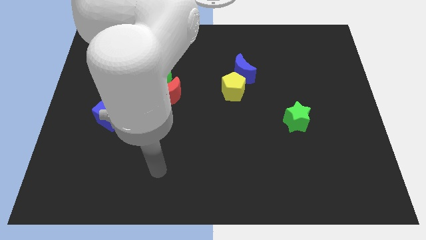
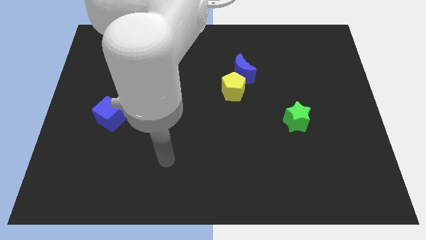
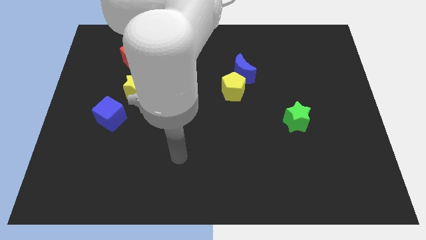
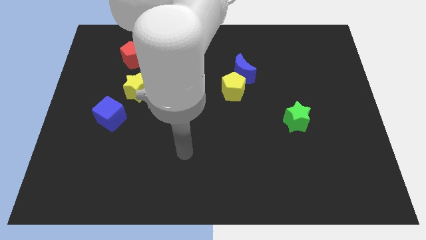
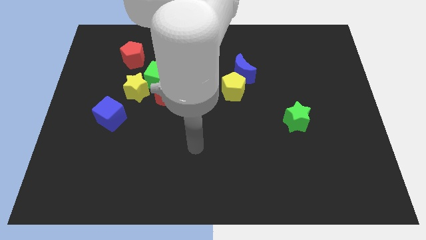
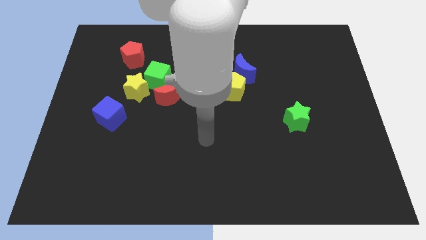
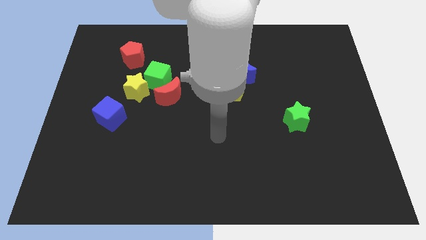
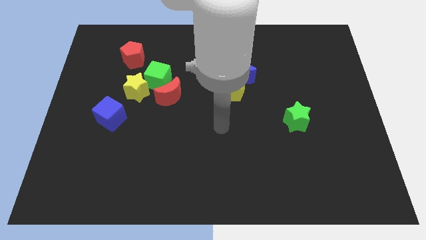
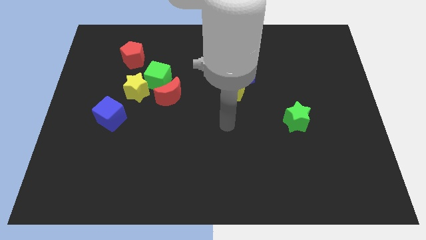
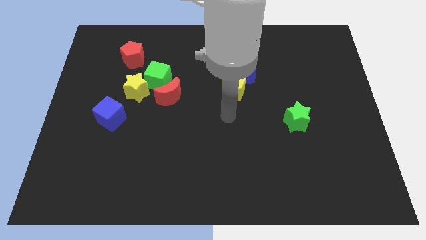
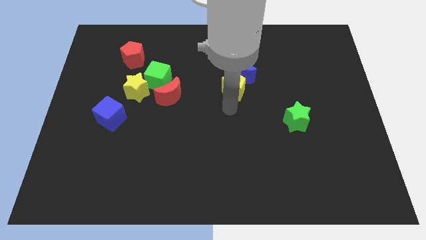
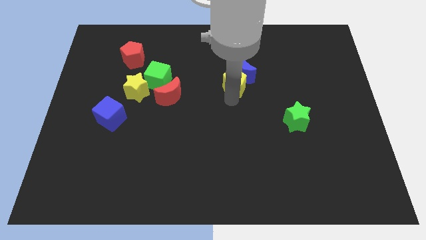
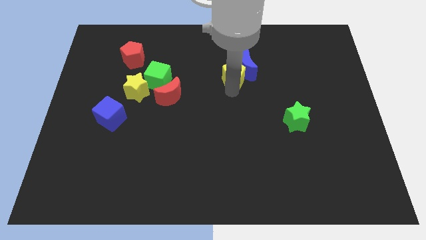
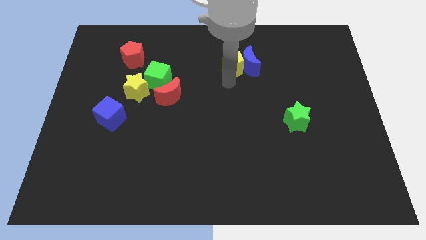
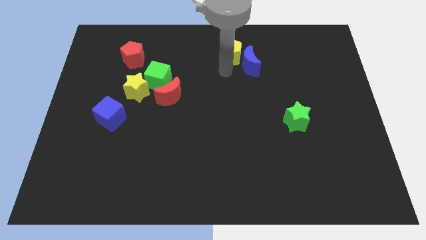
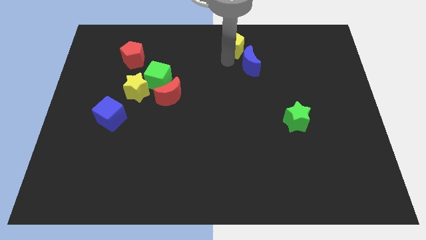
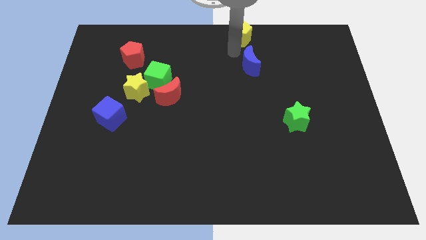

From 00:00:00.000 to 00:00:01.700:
separate the blue moon from the yellow pentagon

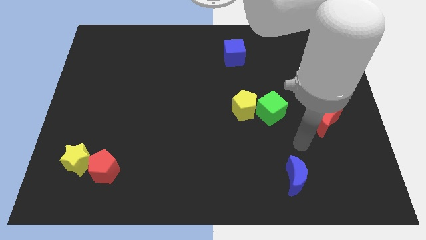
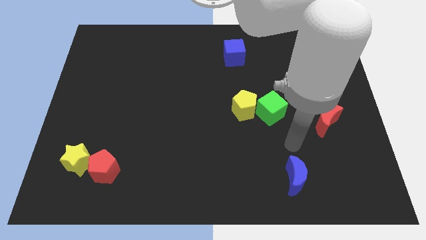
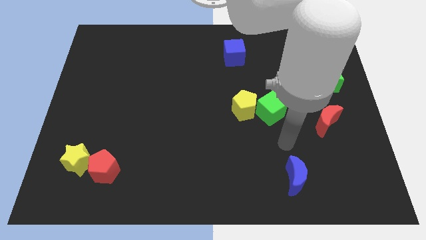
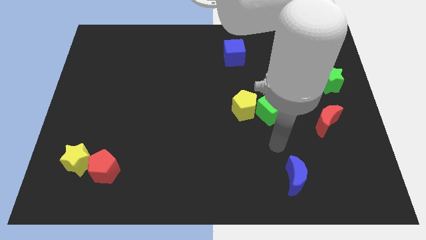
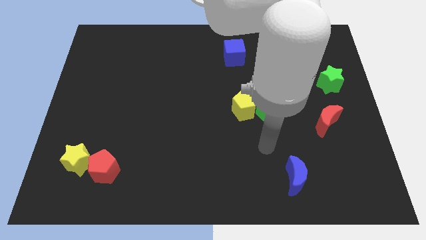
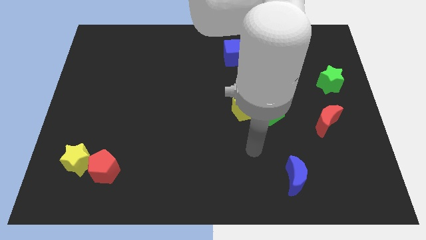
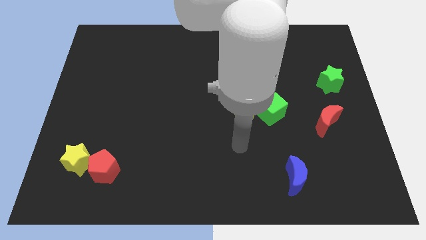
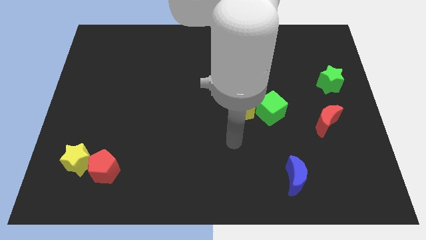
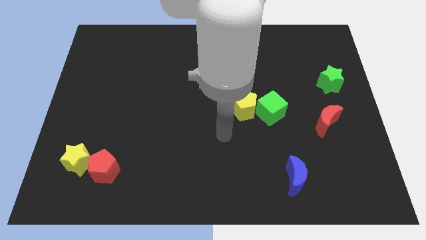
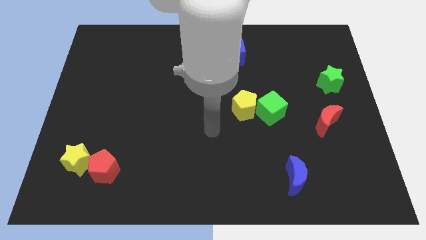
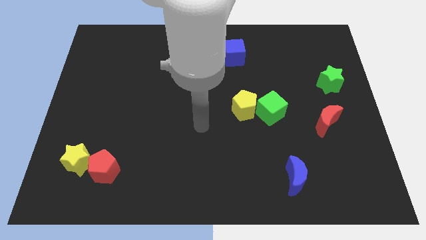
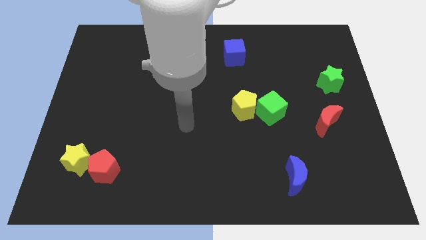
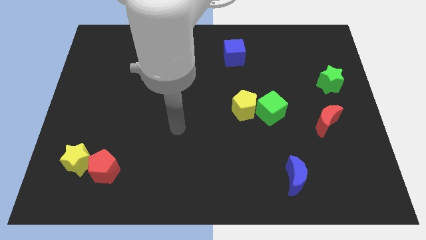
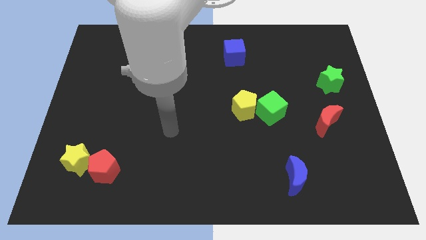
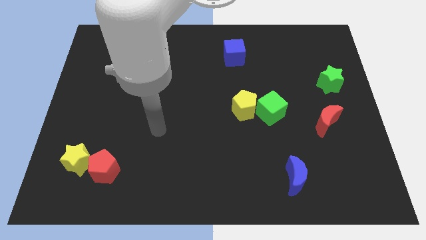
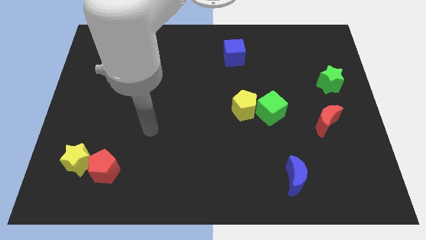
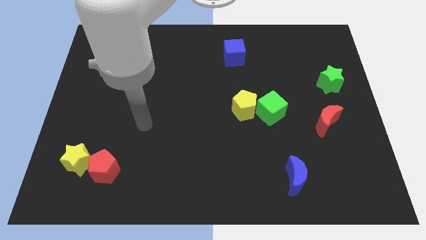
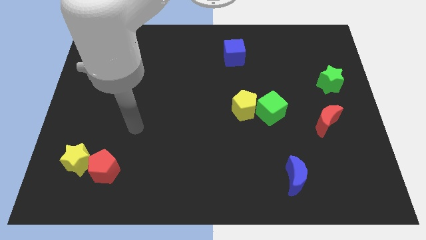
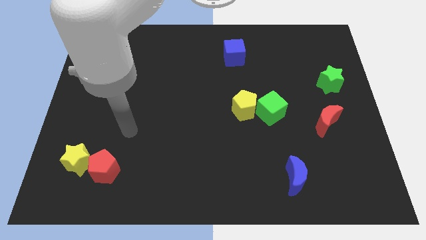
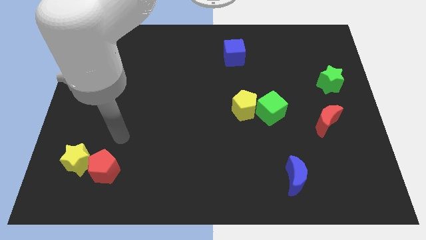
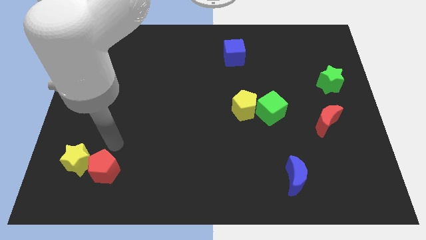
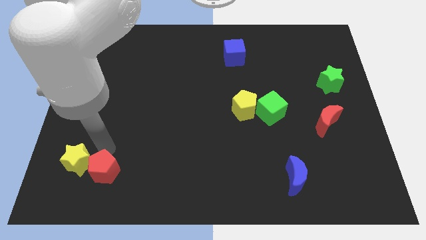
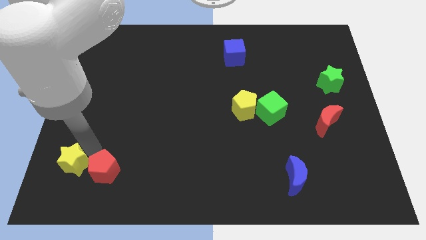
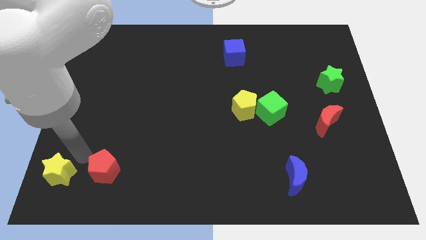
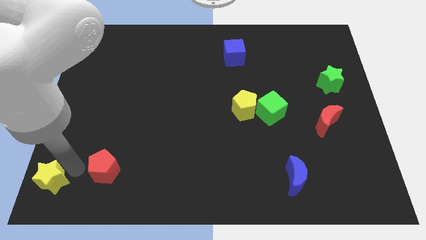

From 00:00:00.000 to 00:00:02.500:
move the red pentagon away from the yellow star

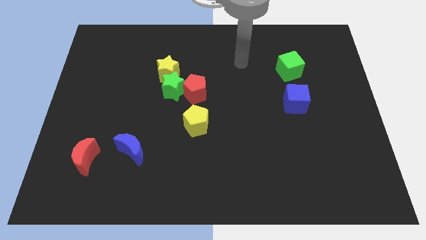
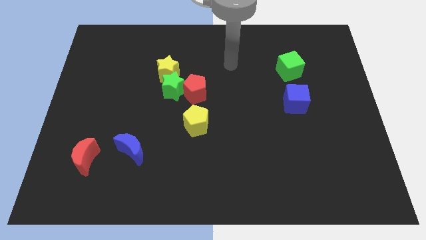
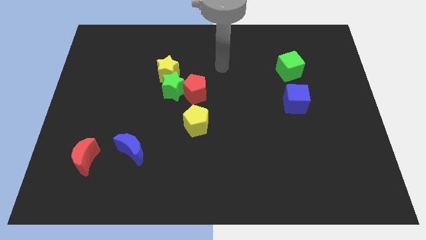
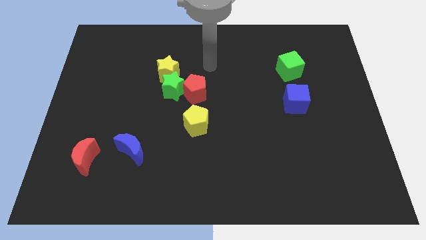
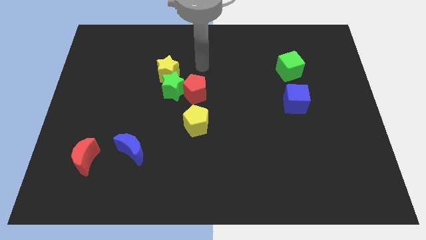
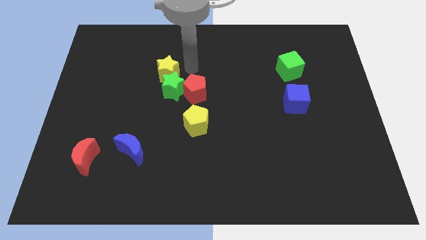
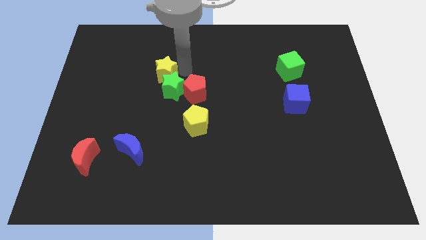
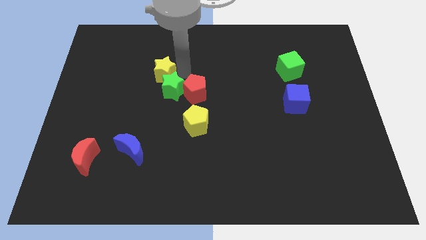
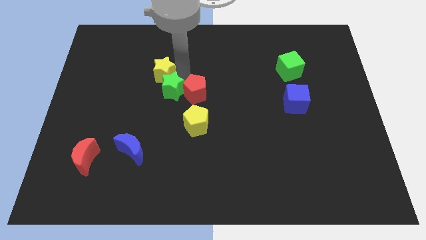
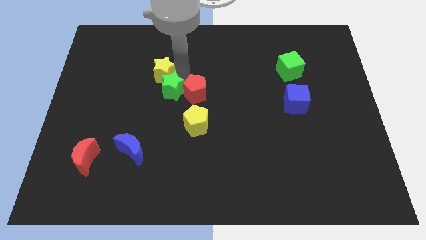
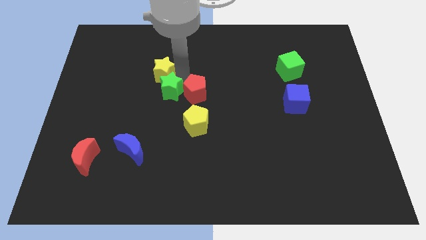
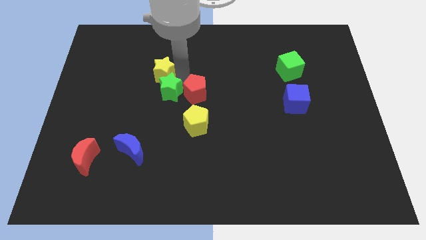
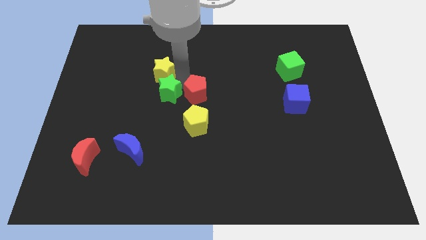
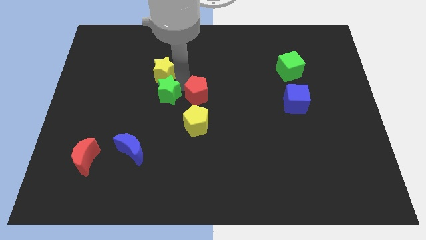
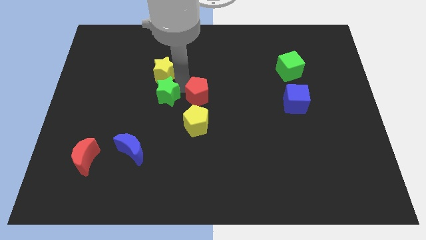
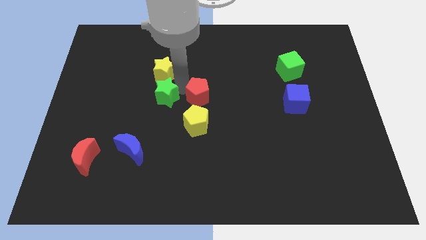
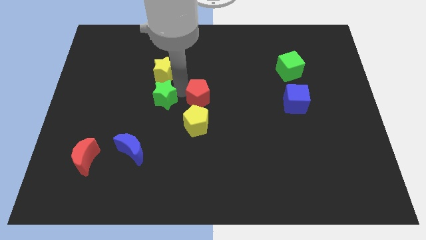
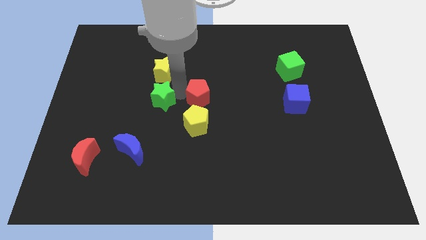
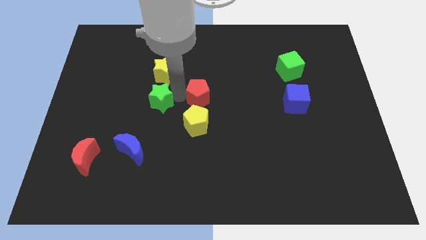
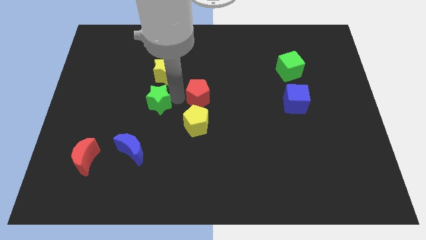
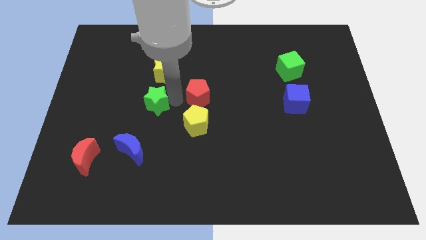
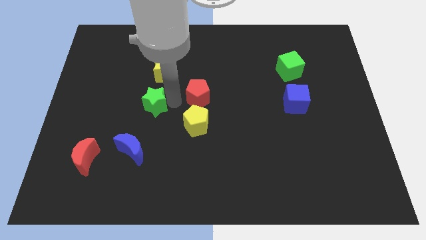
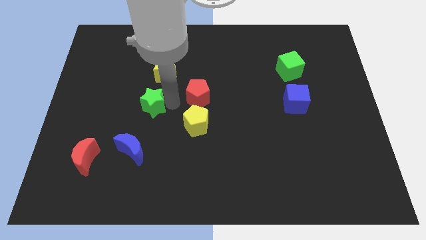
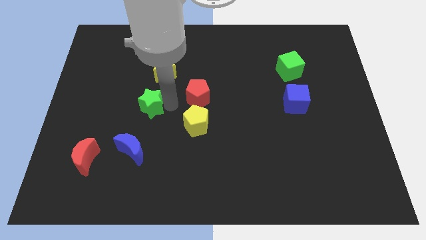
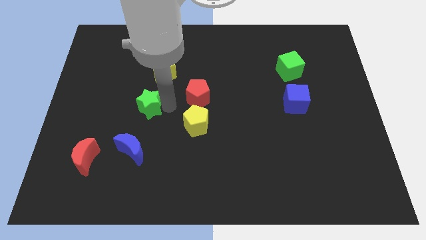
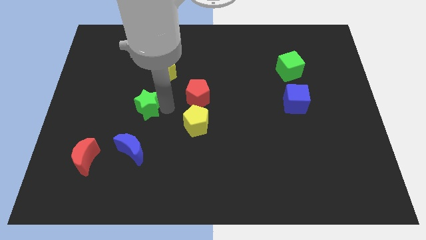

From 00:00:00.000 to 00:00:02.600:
separate the green star from the red pentagon and yellow star

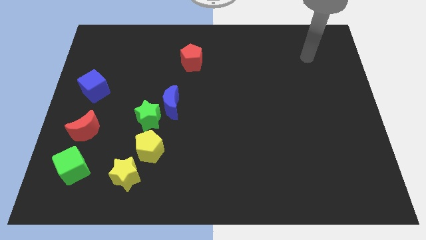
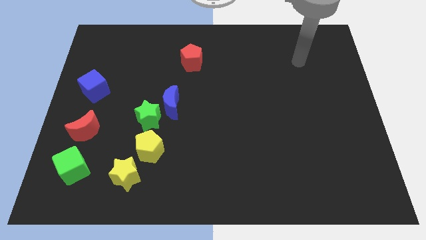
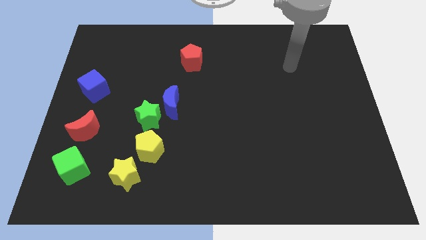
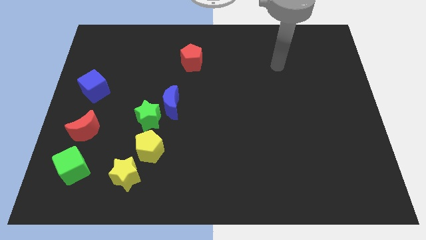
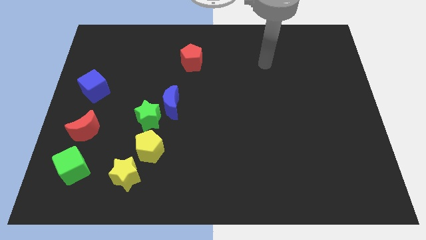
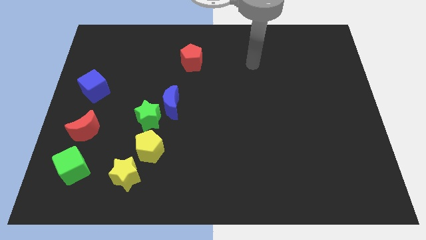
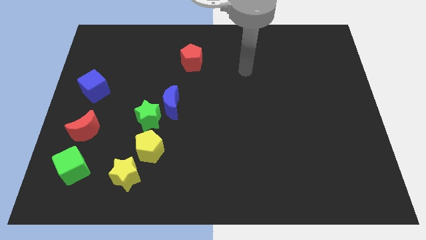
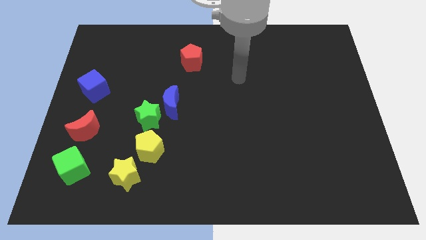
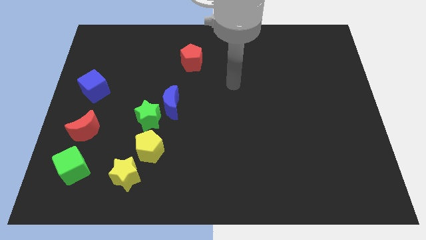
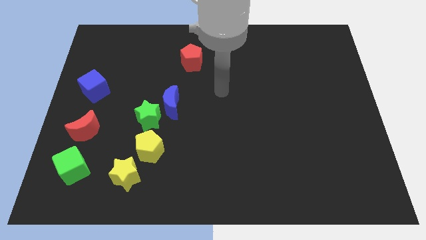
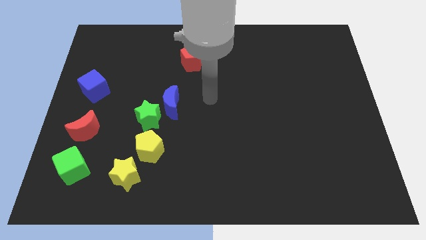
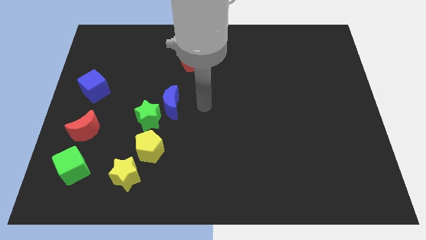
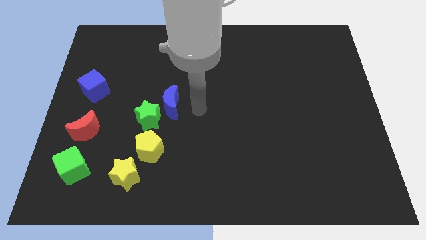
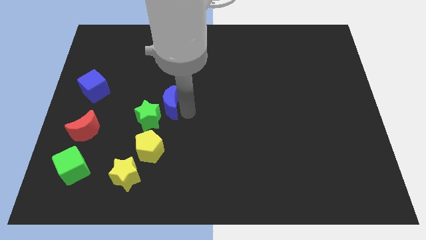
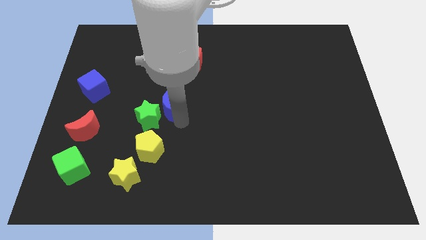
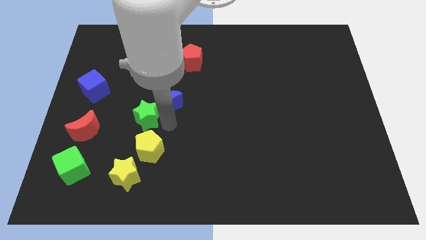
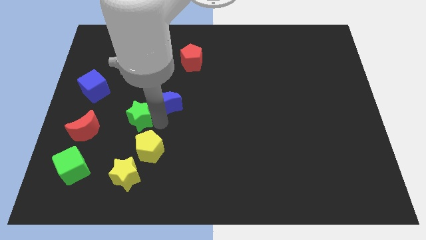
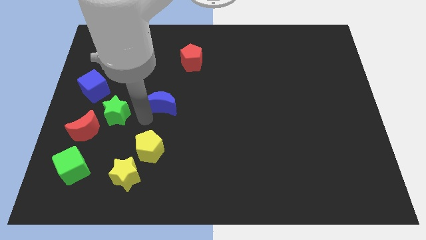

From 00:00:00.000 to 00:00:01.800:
pull the blue moon apart from the green star

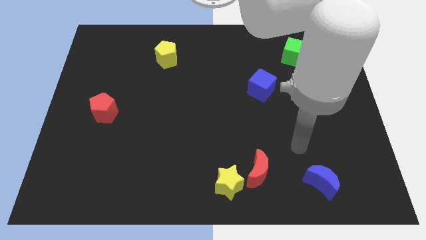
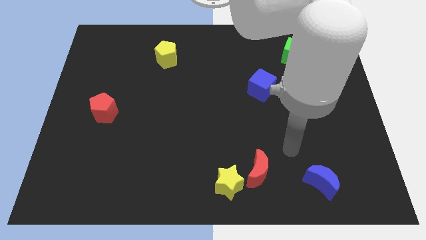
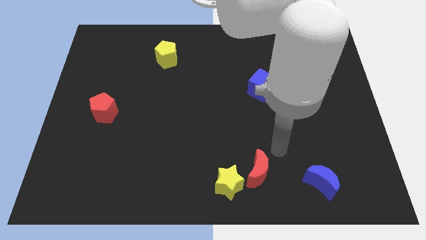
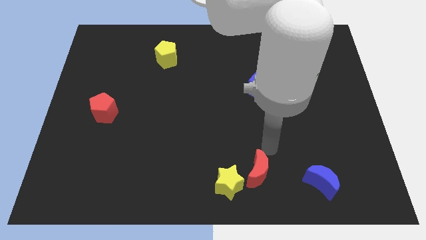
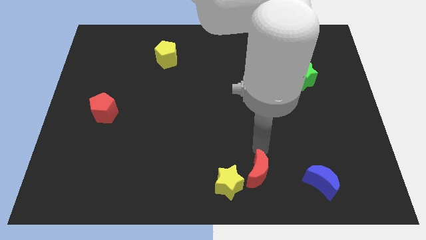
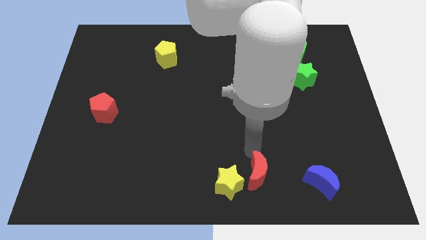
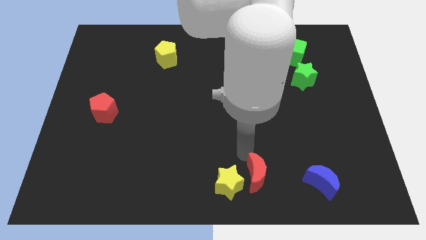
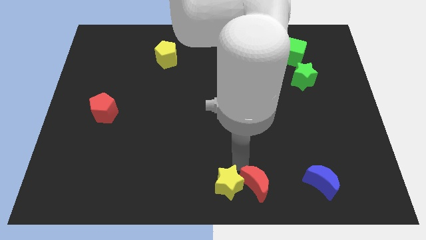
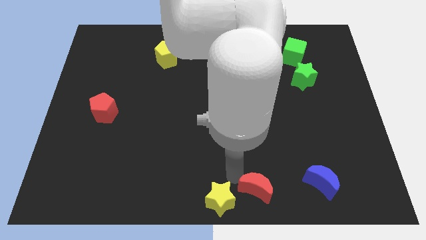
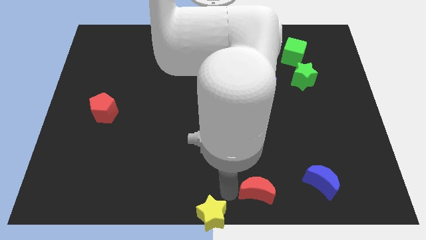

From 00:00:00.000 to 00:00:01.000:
pull the red moon apart from the yellow star
